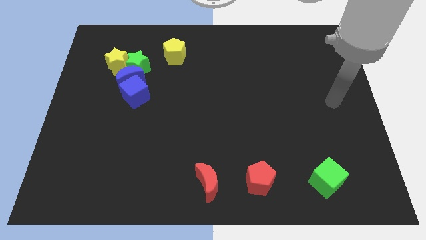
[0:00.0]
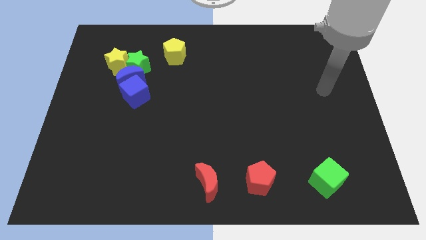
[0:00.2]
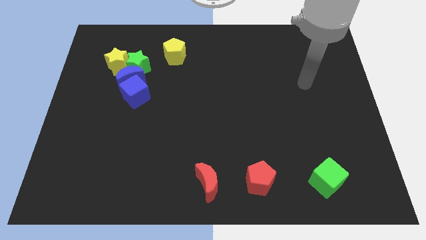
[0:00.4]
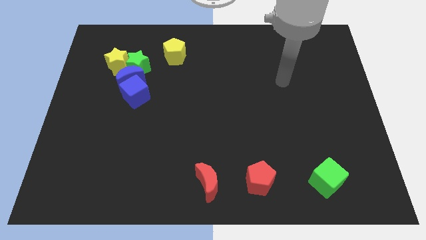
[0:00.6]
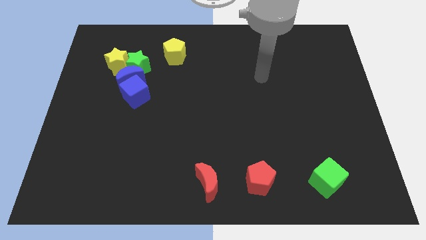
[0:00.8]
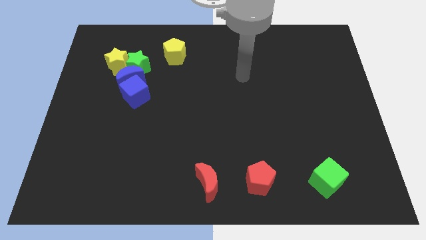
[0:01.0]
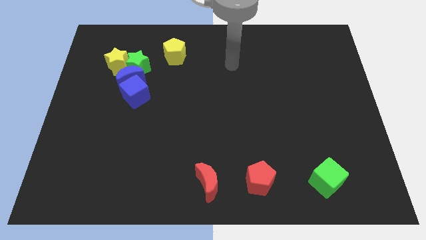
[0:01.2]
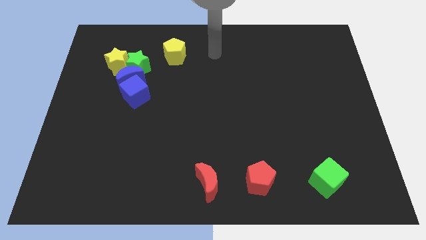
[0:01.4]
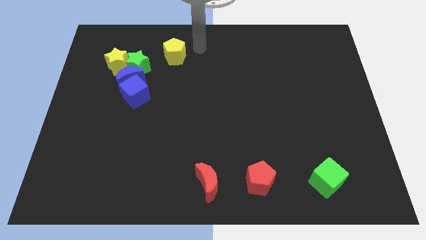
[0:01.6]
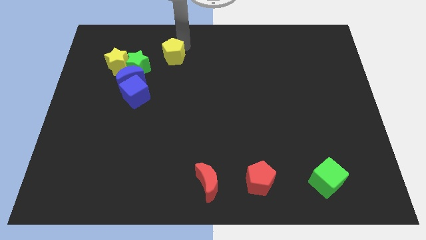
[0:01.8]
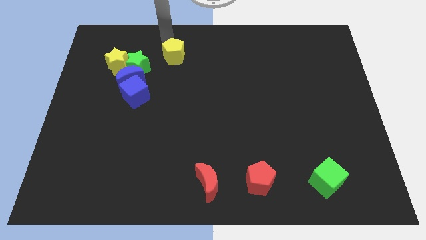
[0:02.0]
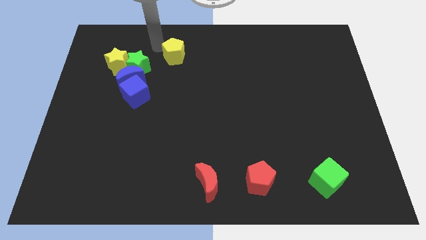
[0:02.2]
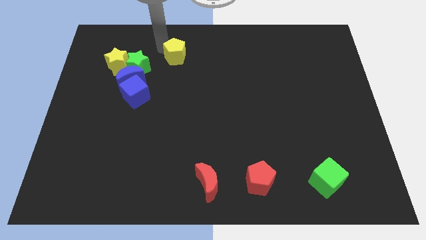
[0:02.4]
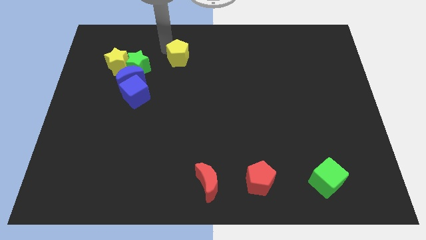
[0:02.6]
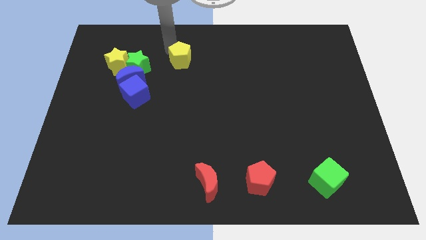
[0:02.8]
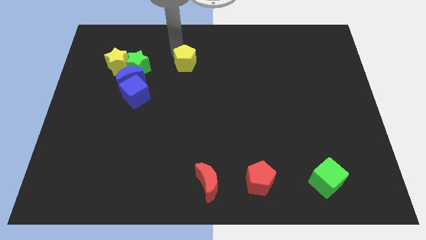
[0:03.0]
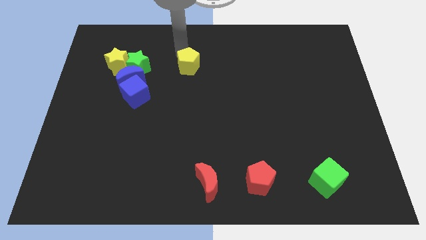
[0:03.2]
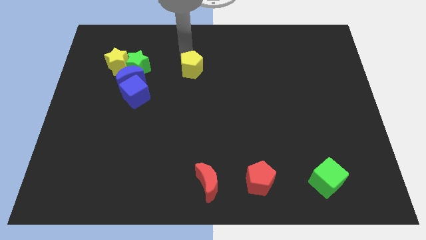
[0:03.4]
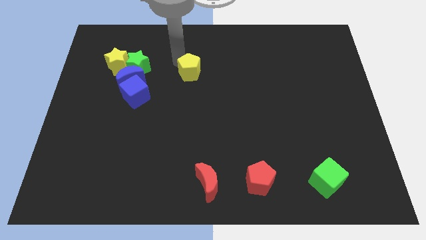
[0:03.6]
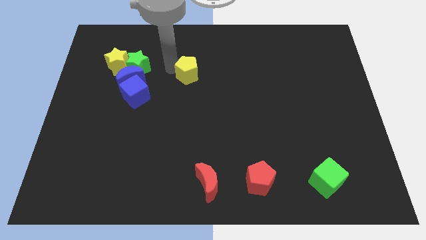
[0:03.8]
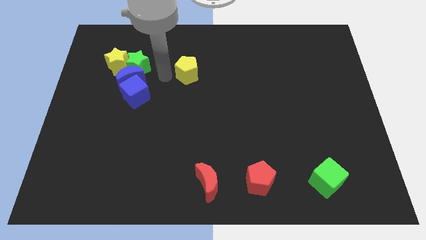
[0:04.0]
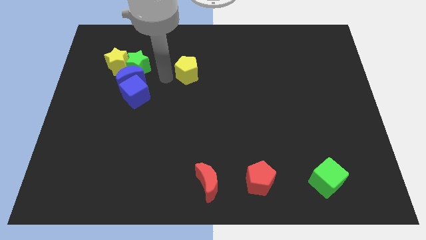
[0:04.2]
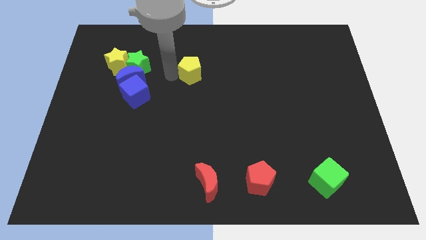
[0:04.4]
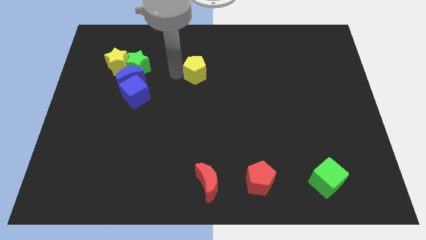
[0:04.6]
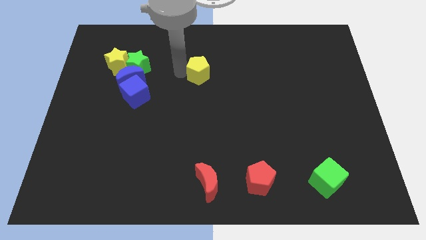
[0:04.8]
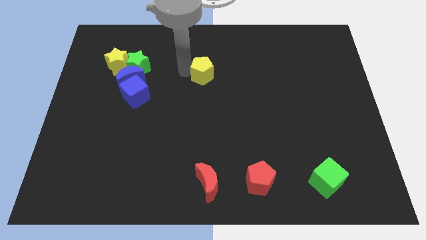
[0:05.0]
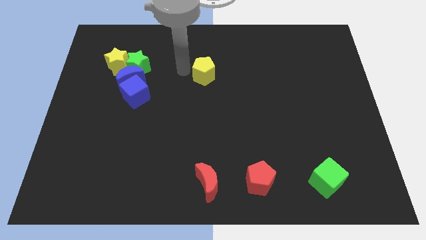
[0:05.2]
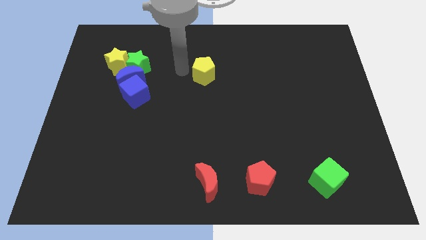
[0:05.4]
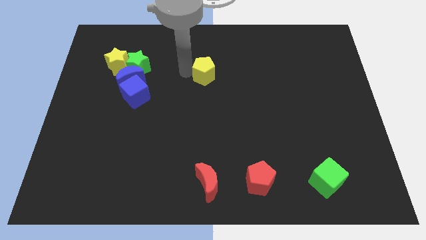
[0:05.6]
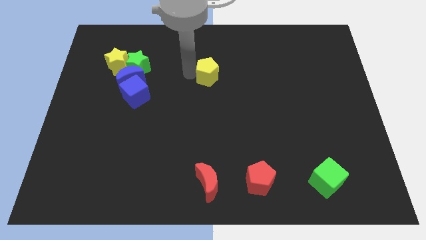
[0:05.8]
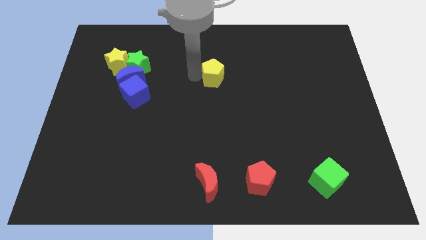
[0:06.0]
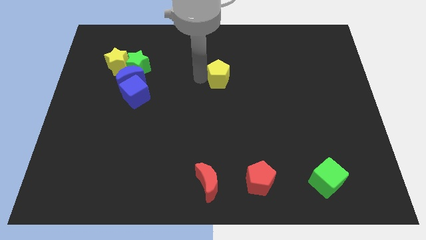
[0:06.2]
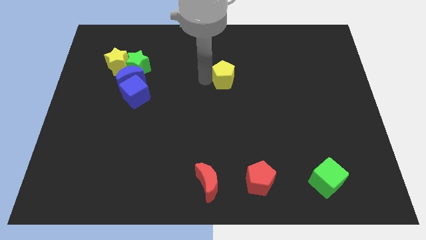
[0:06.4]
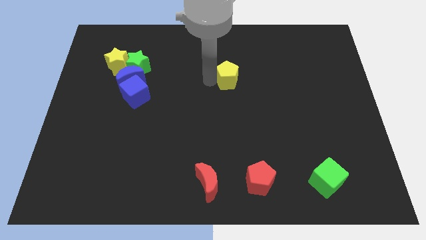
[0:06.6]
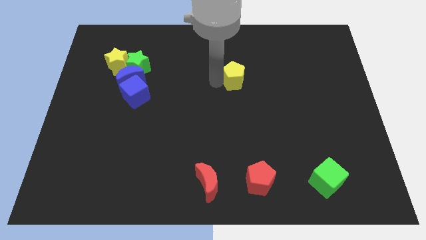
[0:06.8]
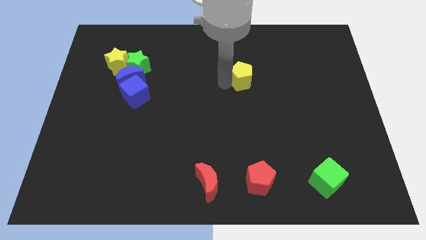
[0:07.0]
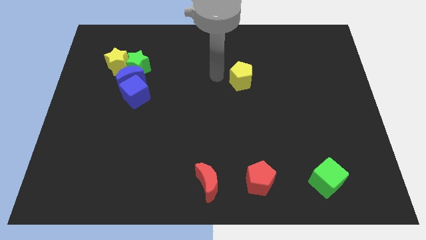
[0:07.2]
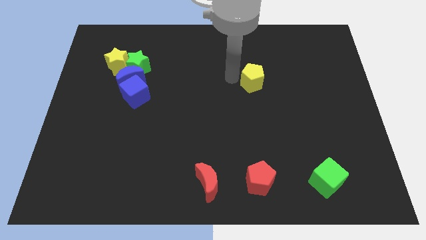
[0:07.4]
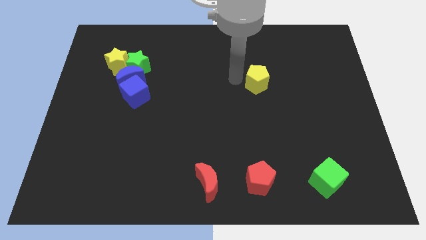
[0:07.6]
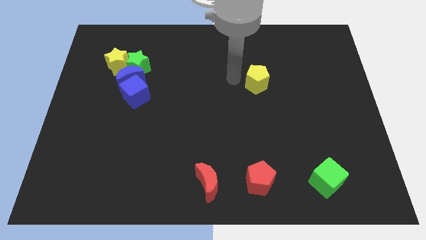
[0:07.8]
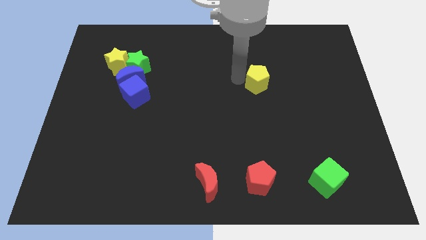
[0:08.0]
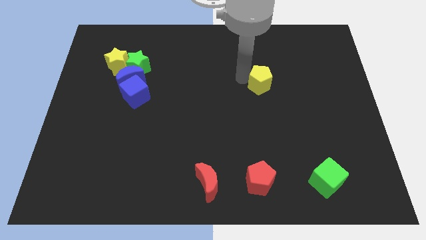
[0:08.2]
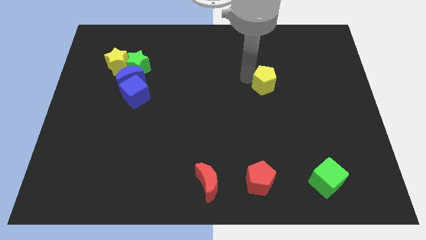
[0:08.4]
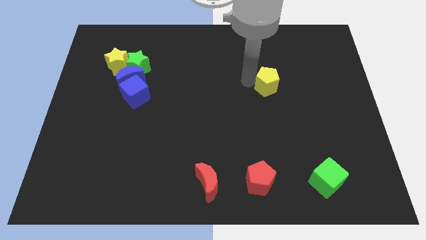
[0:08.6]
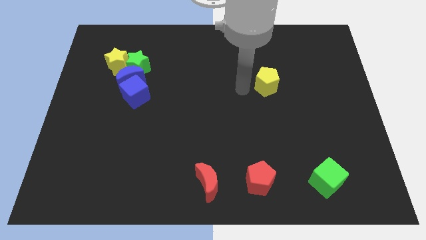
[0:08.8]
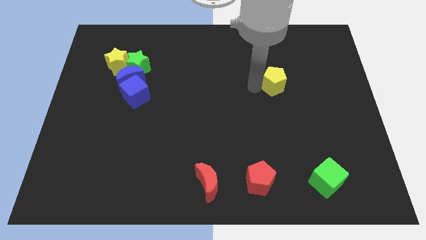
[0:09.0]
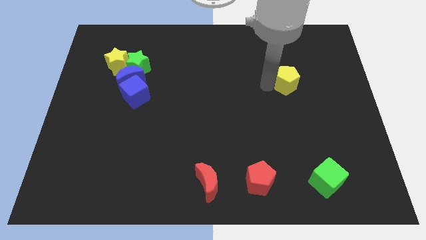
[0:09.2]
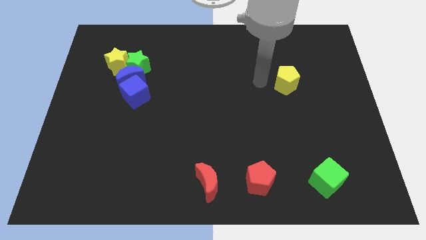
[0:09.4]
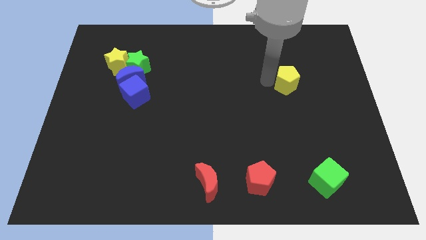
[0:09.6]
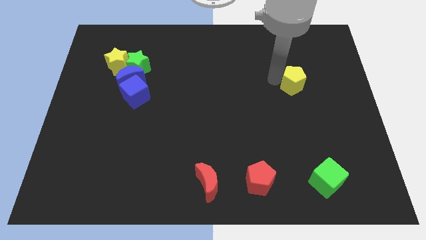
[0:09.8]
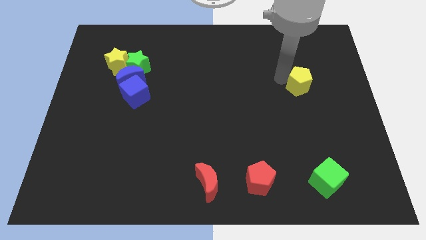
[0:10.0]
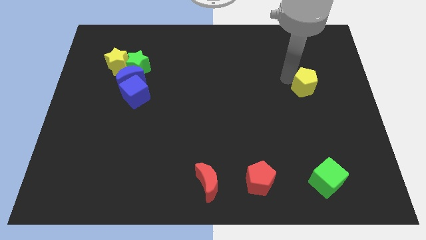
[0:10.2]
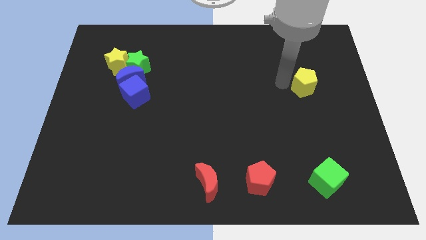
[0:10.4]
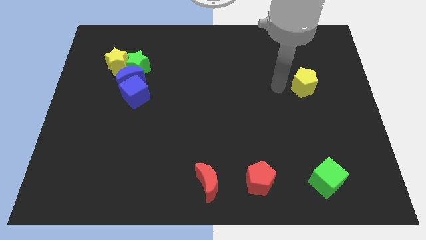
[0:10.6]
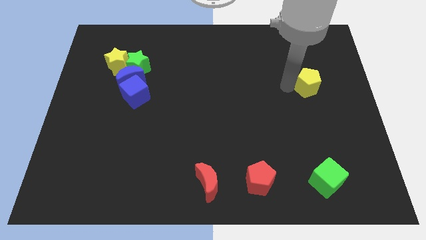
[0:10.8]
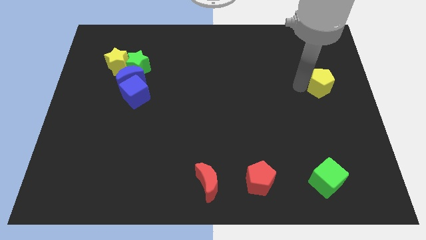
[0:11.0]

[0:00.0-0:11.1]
slide the yellow pentagon to the right side

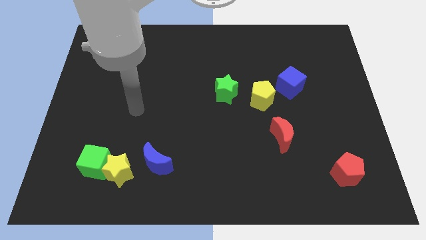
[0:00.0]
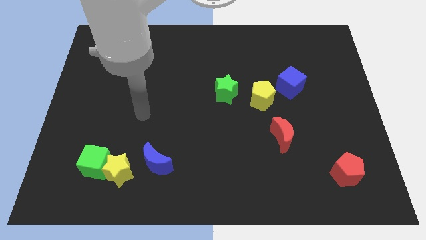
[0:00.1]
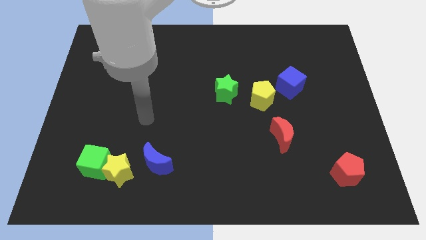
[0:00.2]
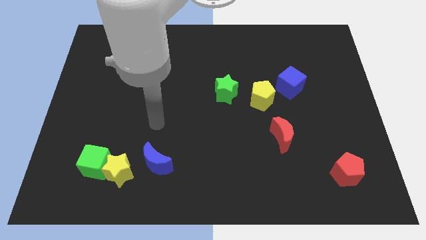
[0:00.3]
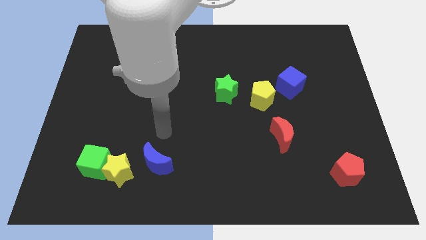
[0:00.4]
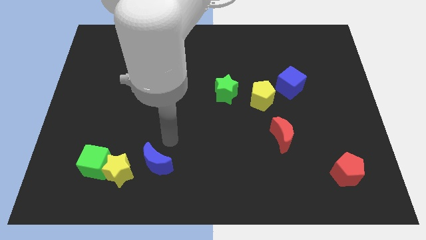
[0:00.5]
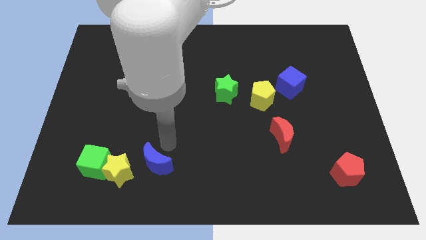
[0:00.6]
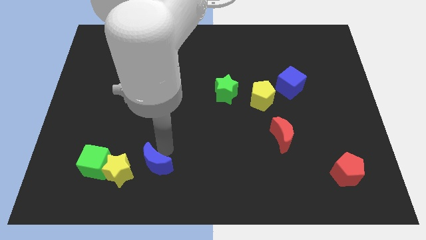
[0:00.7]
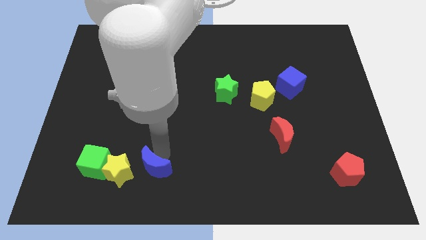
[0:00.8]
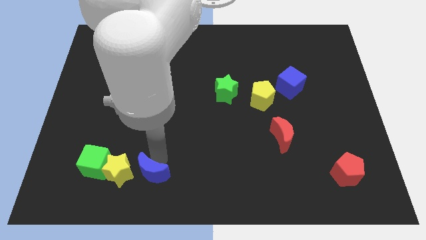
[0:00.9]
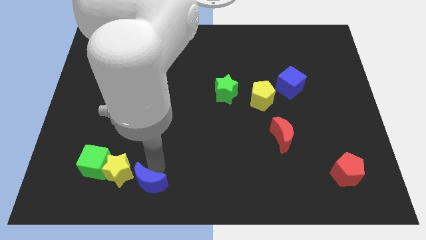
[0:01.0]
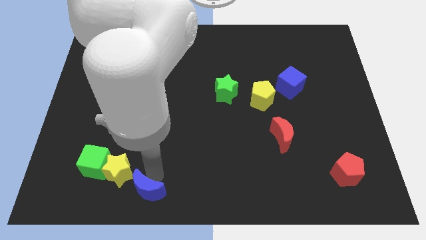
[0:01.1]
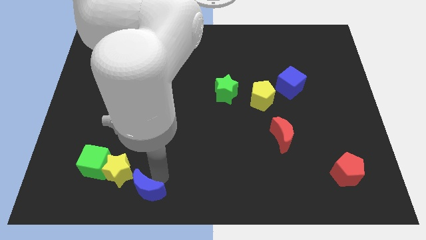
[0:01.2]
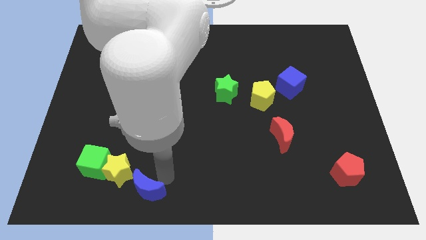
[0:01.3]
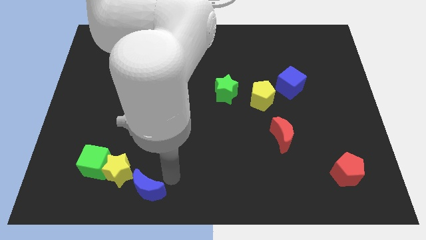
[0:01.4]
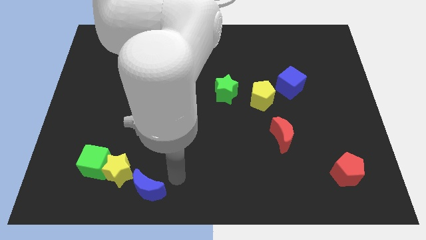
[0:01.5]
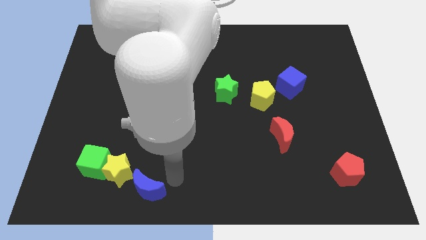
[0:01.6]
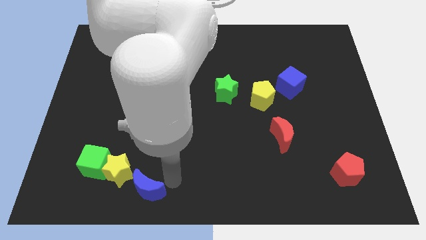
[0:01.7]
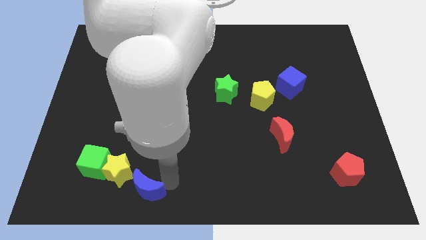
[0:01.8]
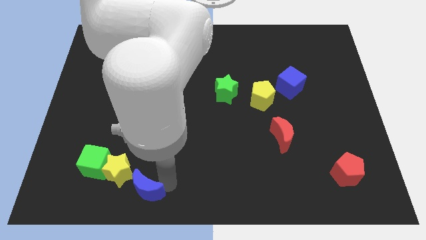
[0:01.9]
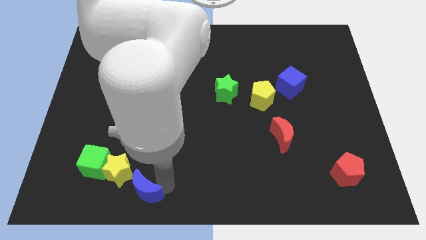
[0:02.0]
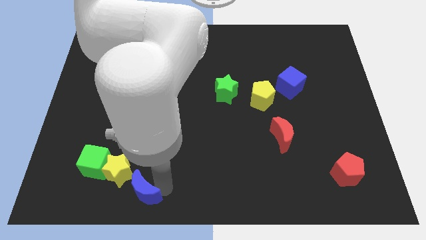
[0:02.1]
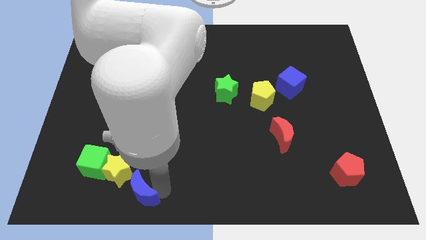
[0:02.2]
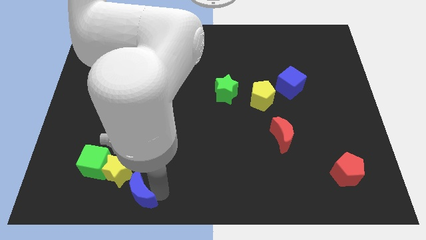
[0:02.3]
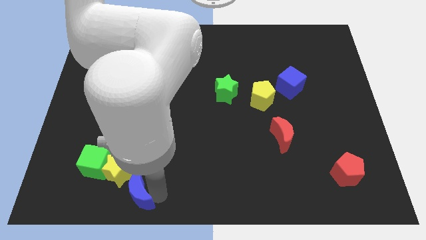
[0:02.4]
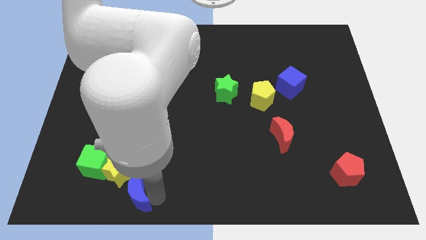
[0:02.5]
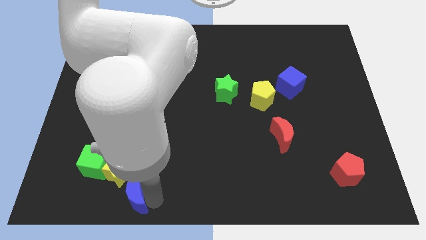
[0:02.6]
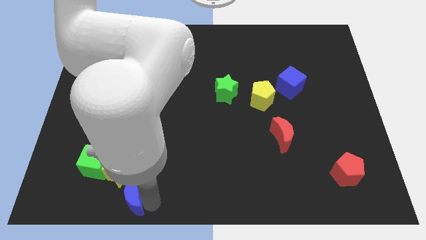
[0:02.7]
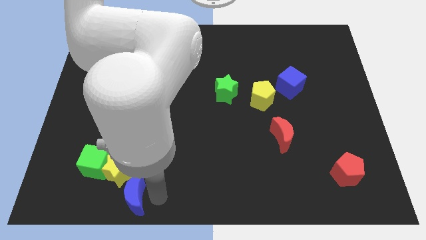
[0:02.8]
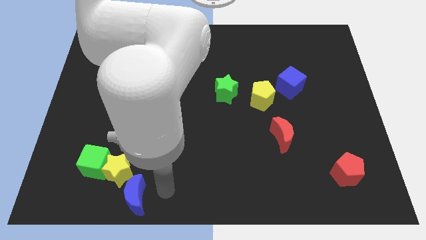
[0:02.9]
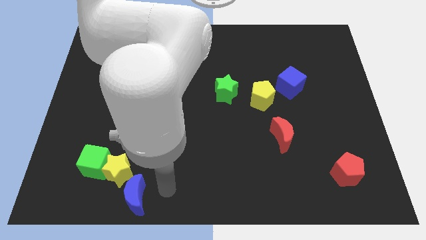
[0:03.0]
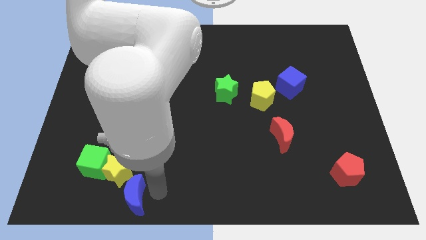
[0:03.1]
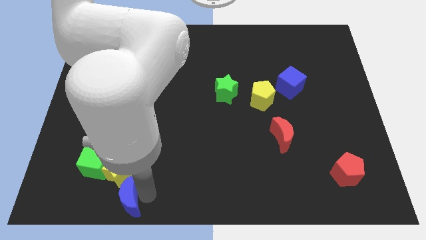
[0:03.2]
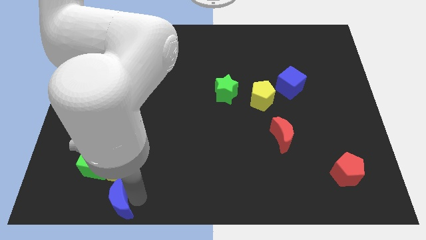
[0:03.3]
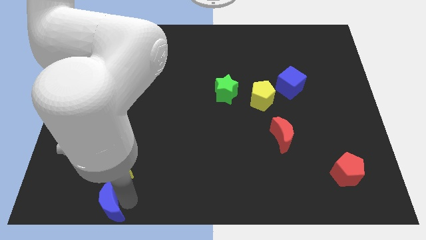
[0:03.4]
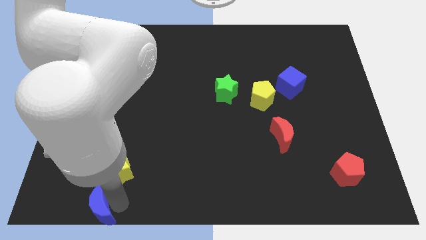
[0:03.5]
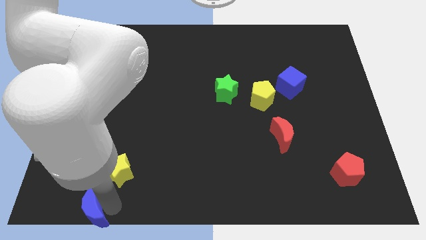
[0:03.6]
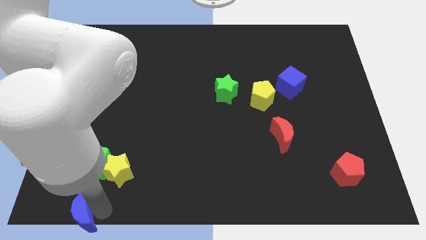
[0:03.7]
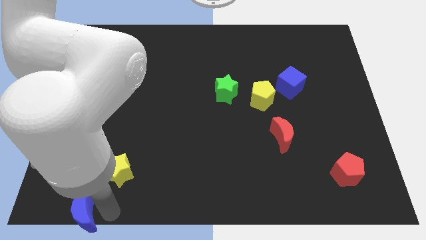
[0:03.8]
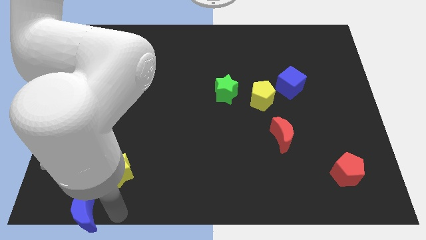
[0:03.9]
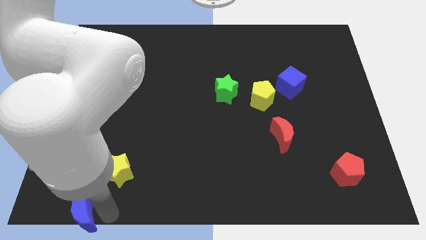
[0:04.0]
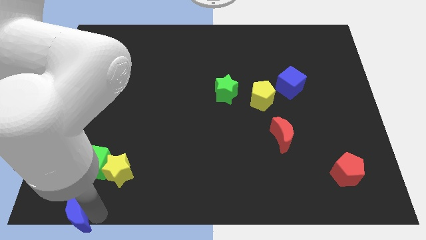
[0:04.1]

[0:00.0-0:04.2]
move the blue moon to the lower left corner
